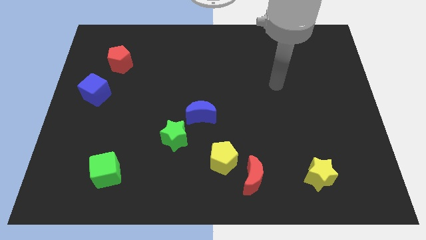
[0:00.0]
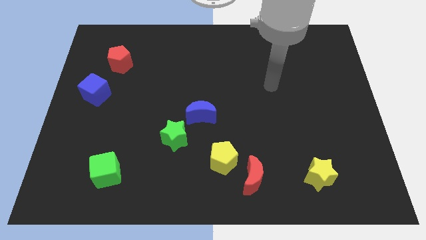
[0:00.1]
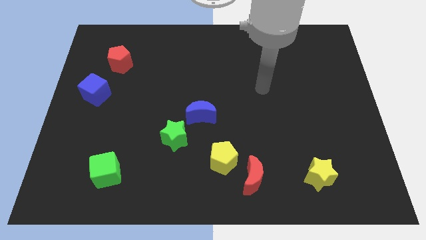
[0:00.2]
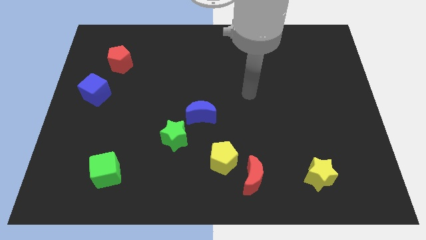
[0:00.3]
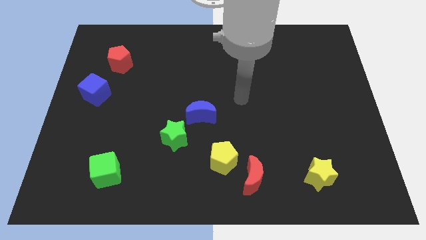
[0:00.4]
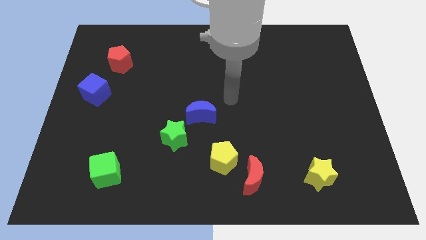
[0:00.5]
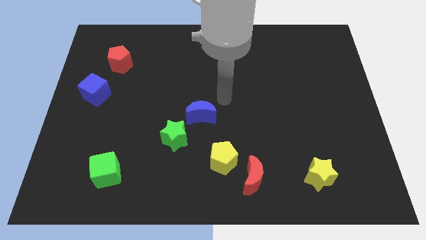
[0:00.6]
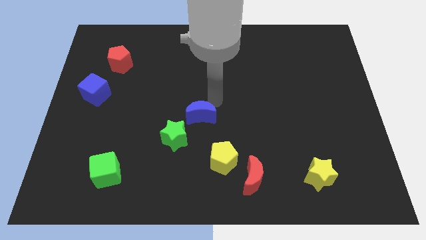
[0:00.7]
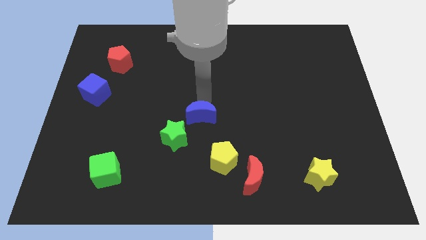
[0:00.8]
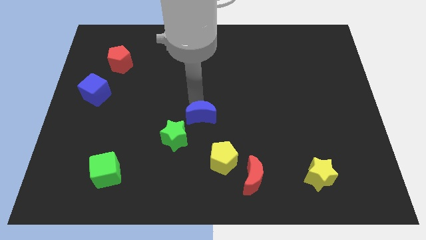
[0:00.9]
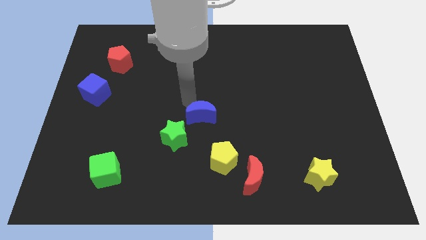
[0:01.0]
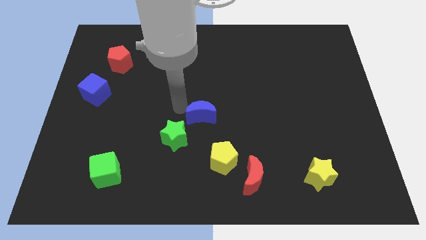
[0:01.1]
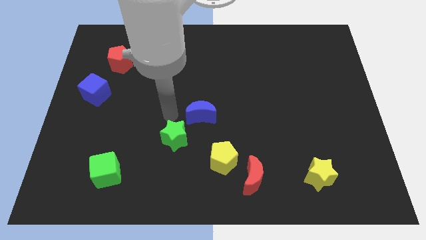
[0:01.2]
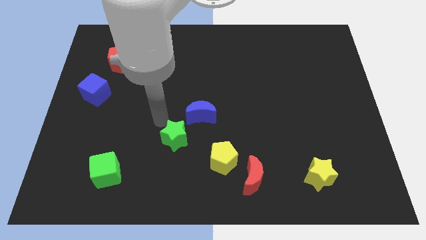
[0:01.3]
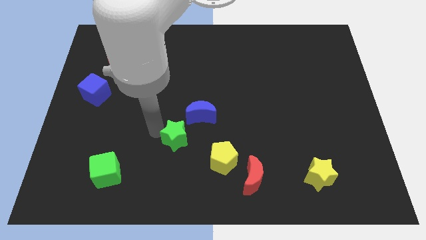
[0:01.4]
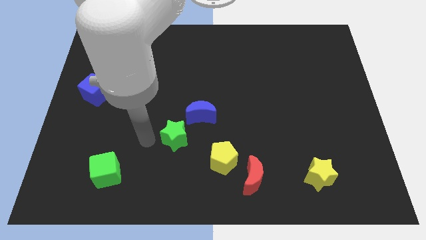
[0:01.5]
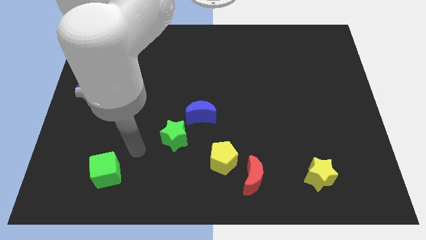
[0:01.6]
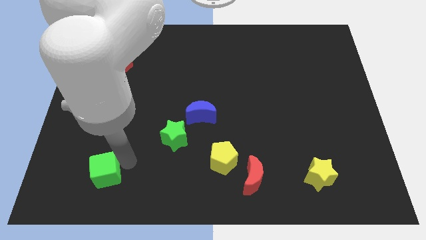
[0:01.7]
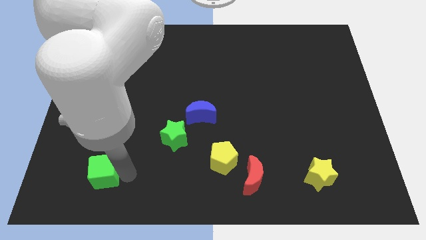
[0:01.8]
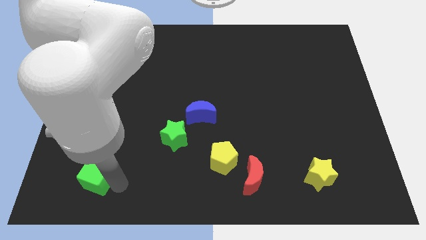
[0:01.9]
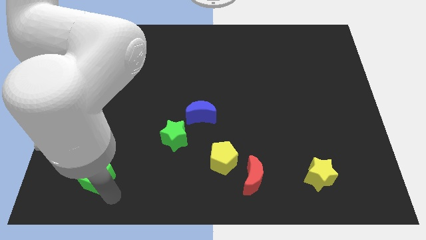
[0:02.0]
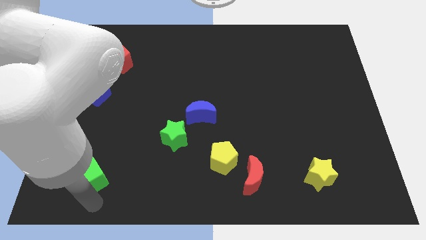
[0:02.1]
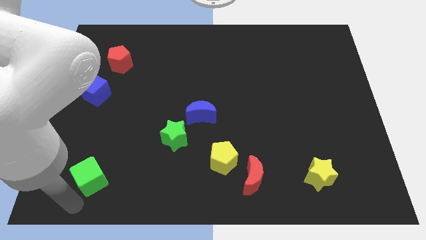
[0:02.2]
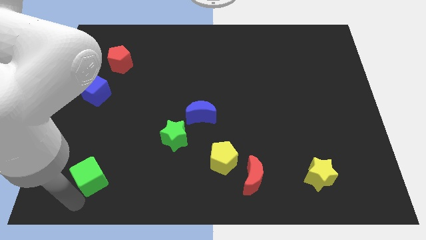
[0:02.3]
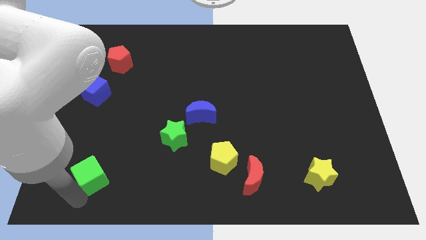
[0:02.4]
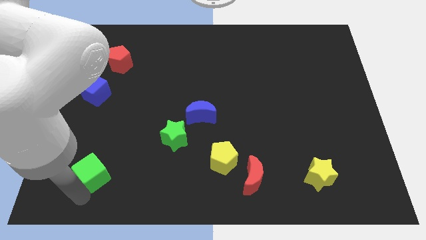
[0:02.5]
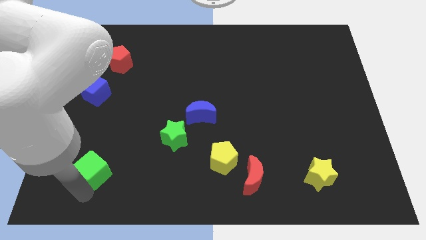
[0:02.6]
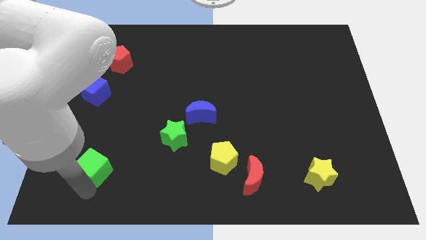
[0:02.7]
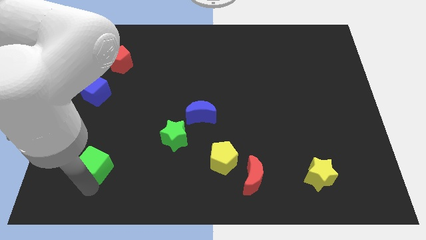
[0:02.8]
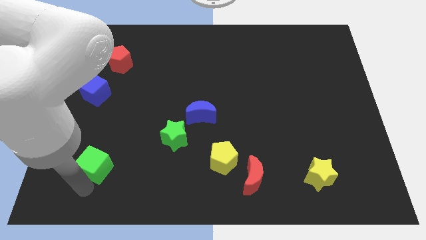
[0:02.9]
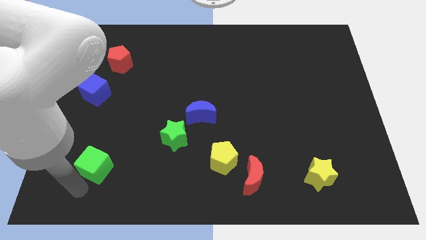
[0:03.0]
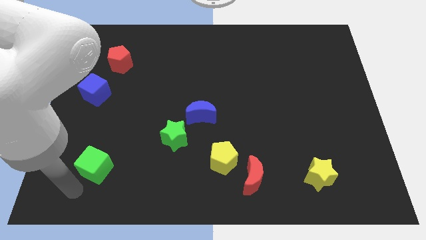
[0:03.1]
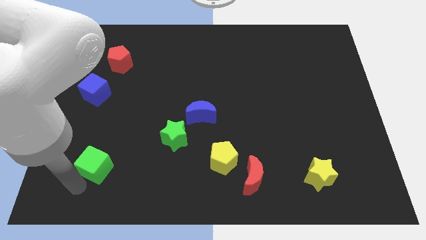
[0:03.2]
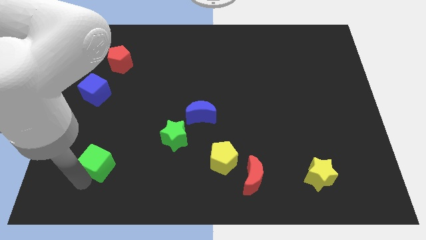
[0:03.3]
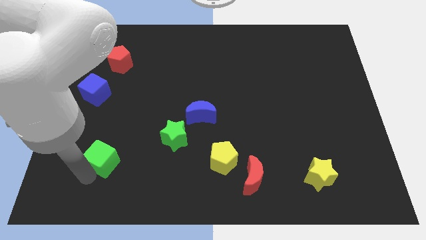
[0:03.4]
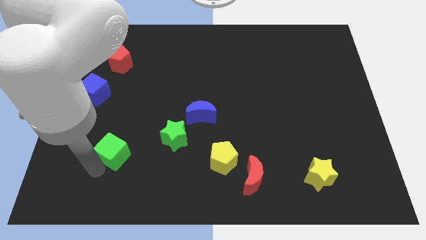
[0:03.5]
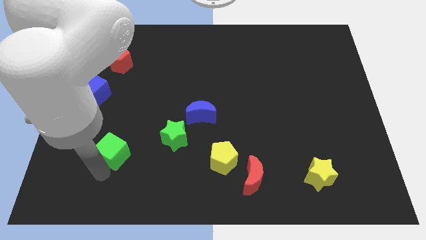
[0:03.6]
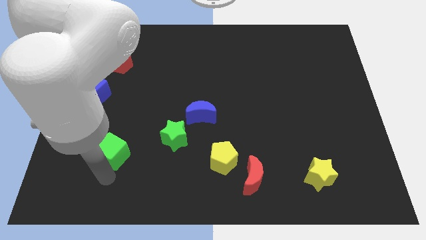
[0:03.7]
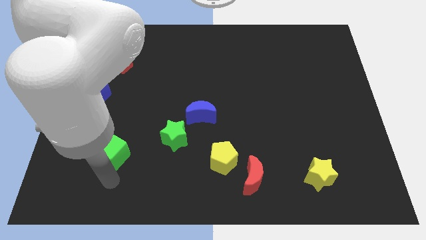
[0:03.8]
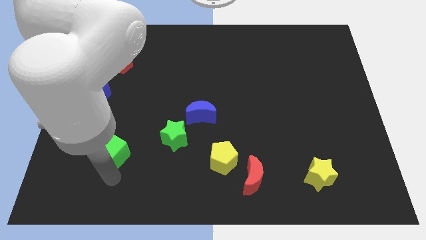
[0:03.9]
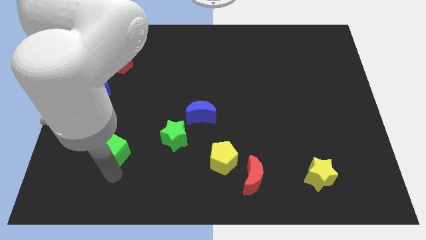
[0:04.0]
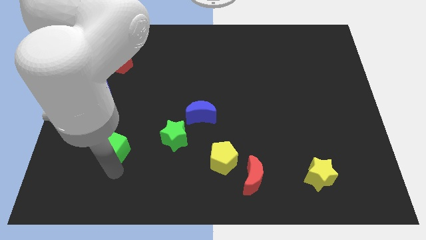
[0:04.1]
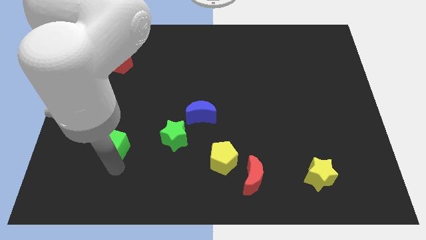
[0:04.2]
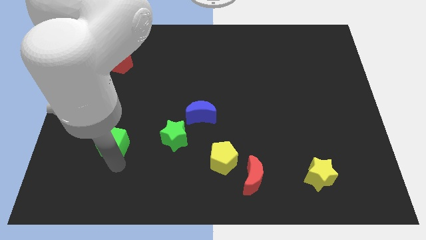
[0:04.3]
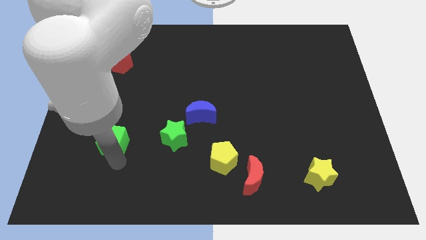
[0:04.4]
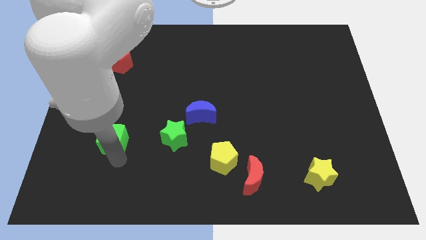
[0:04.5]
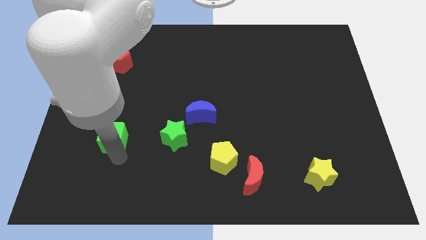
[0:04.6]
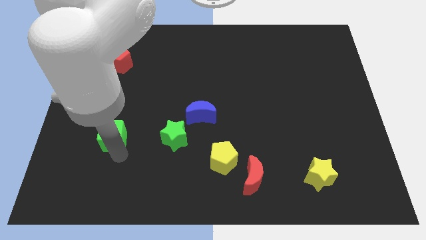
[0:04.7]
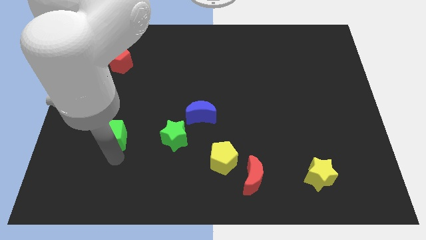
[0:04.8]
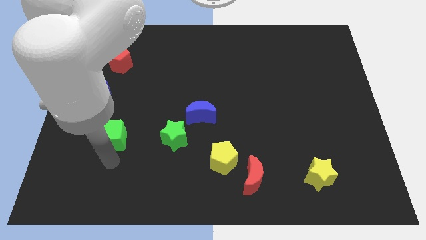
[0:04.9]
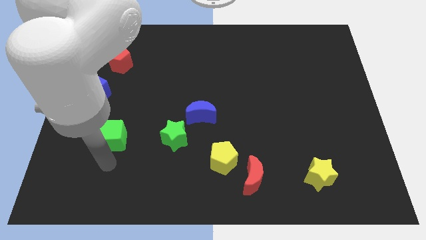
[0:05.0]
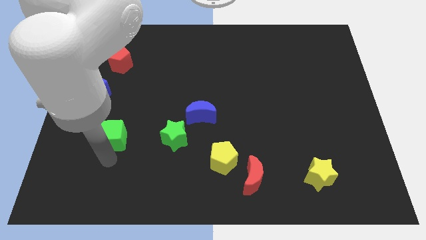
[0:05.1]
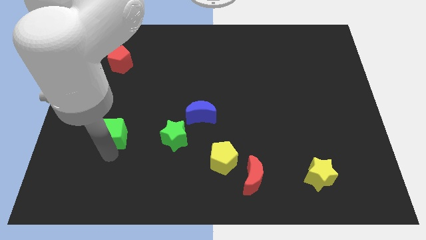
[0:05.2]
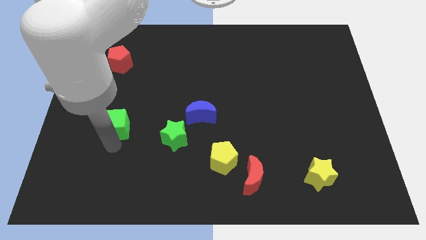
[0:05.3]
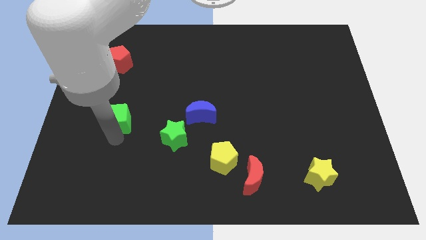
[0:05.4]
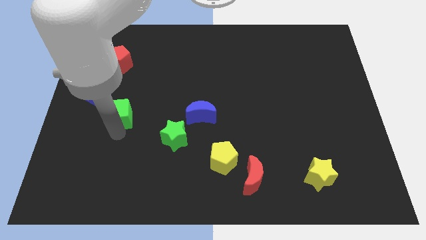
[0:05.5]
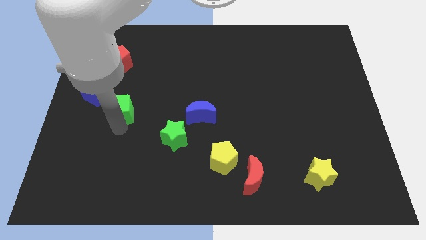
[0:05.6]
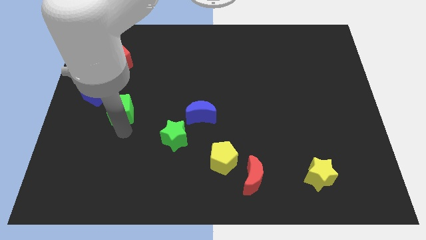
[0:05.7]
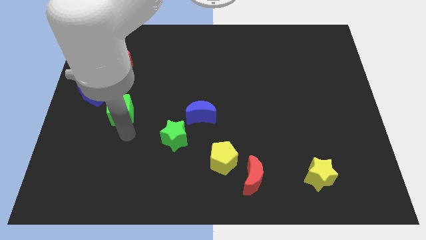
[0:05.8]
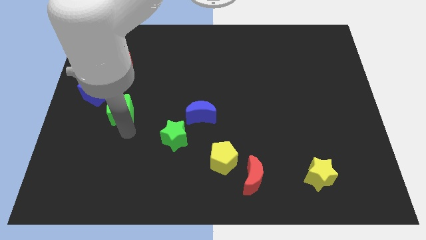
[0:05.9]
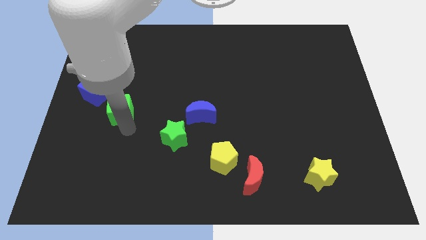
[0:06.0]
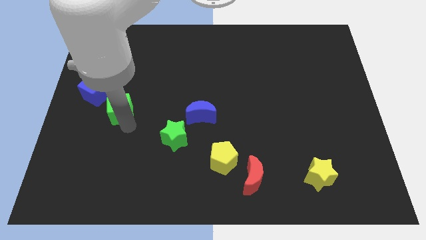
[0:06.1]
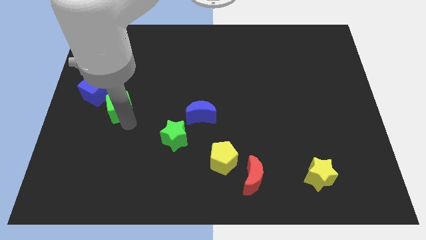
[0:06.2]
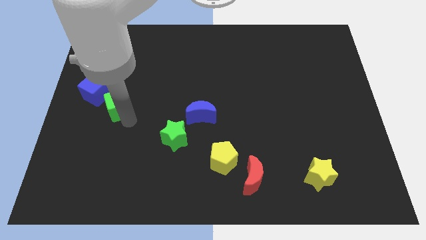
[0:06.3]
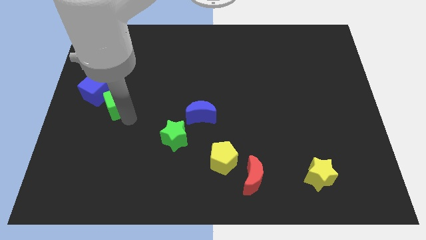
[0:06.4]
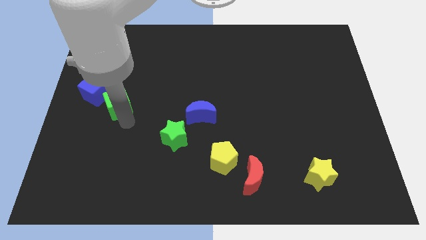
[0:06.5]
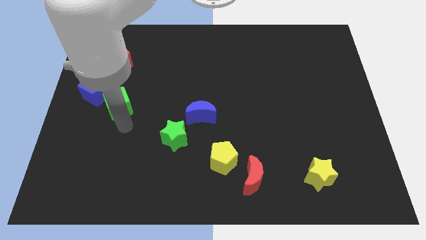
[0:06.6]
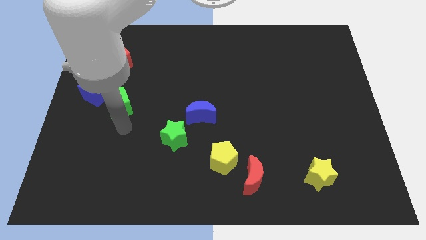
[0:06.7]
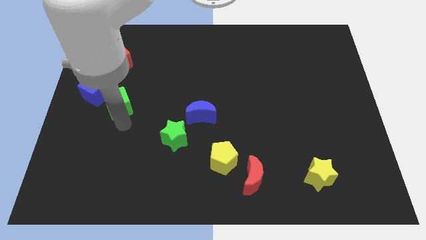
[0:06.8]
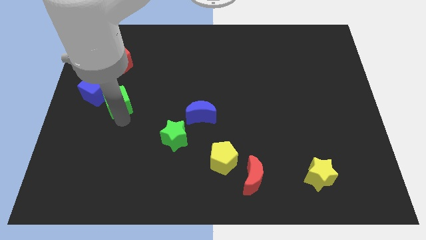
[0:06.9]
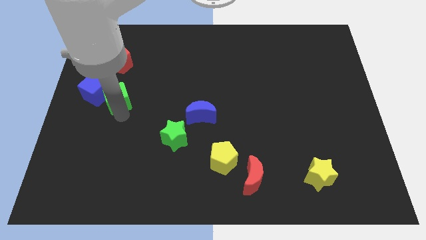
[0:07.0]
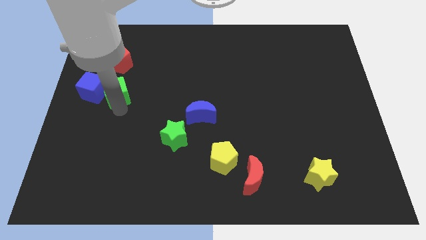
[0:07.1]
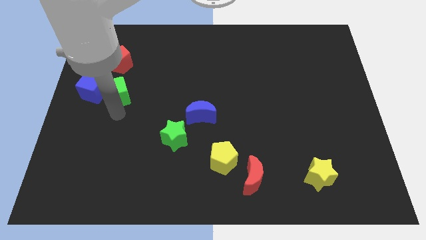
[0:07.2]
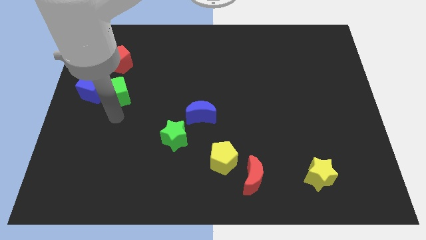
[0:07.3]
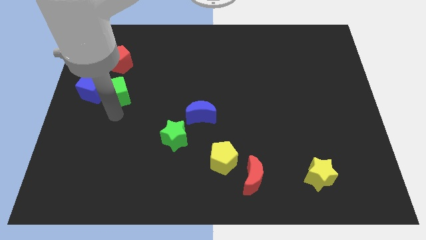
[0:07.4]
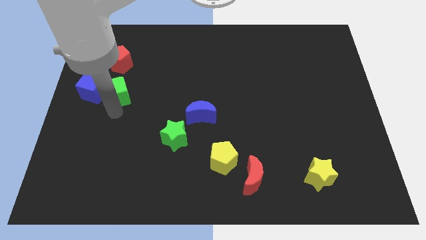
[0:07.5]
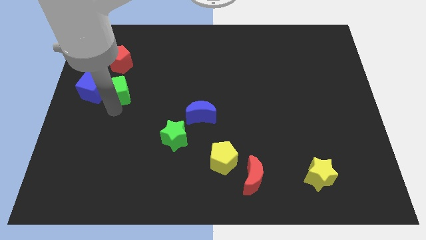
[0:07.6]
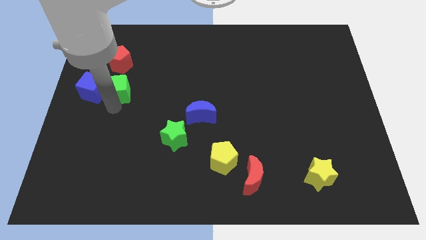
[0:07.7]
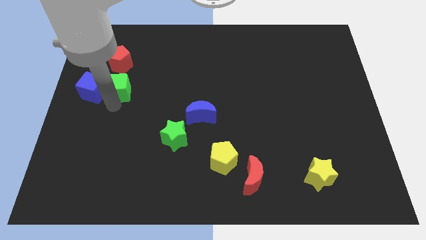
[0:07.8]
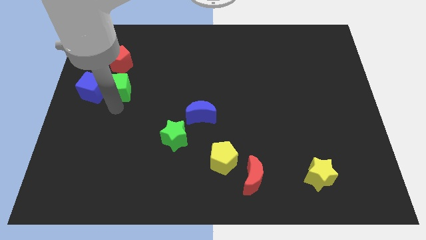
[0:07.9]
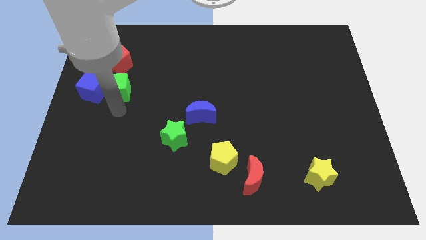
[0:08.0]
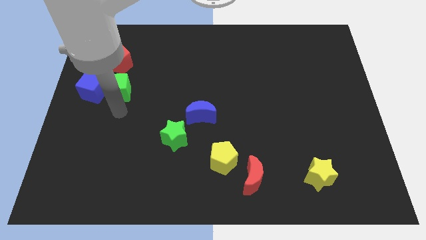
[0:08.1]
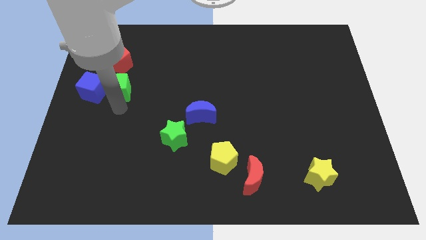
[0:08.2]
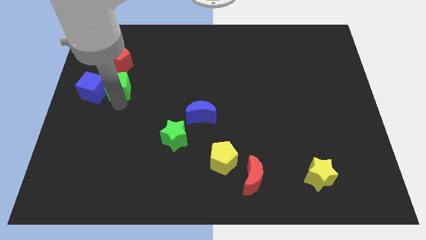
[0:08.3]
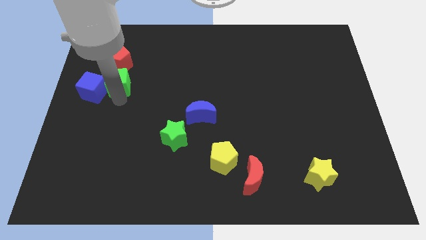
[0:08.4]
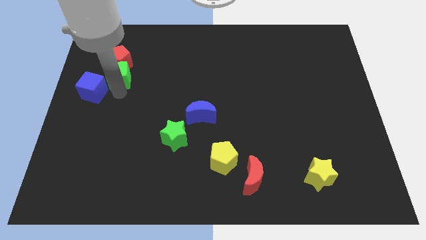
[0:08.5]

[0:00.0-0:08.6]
slide the green cube next to the red pentagon
